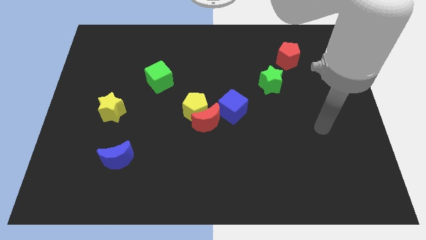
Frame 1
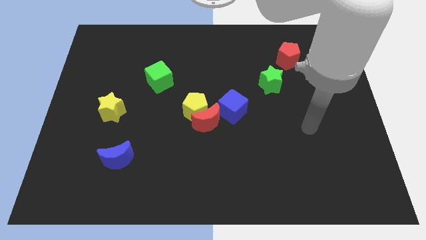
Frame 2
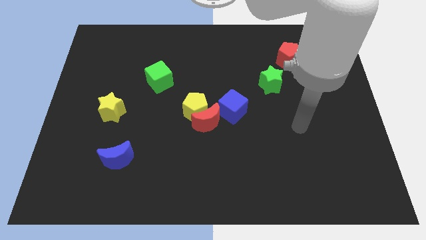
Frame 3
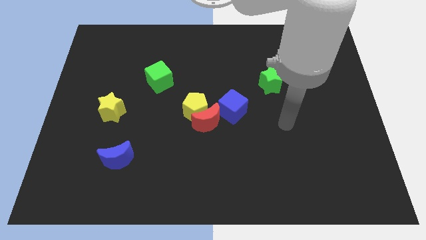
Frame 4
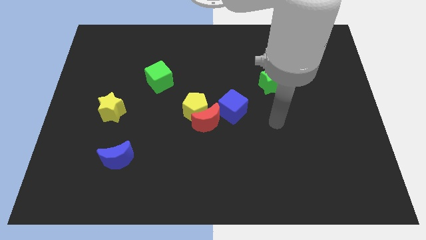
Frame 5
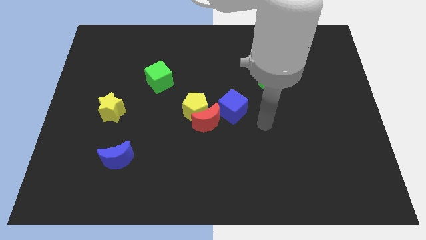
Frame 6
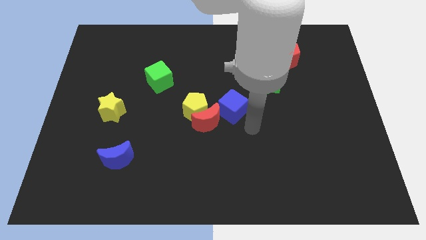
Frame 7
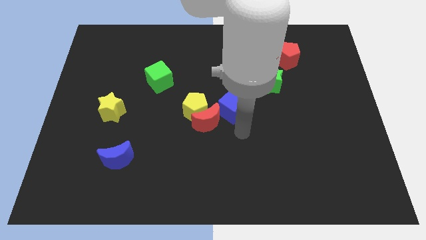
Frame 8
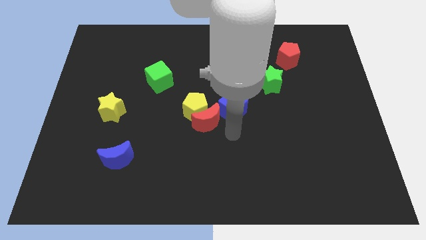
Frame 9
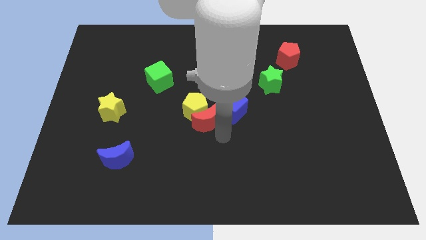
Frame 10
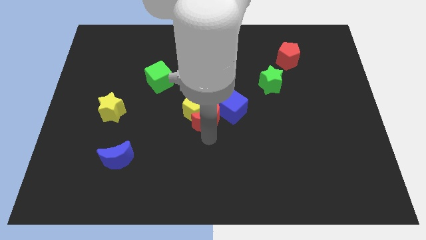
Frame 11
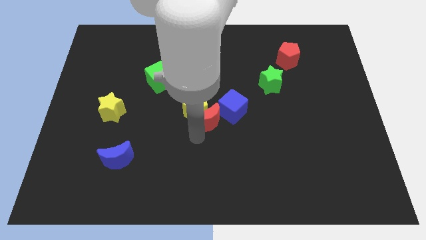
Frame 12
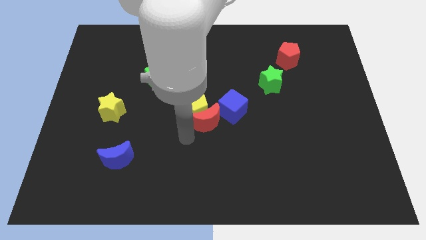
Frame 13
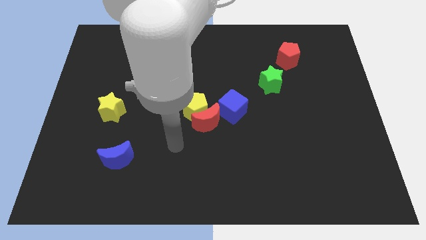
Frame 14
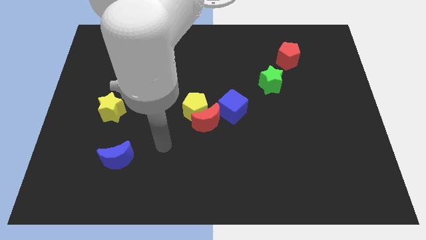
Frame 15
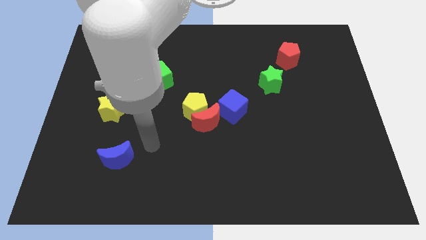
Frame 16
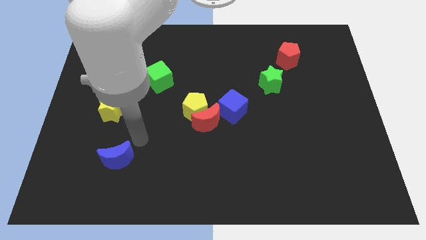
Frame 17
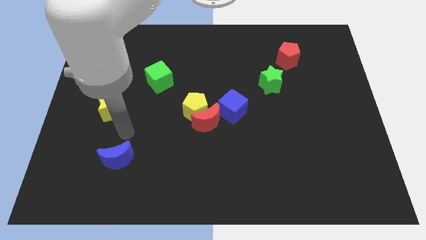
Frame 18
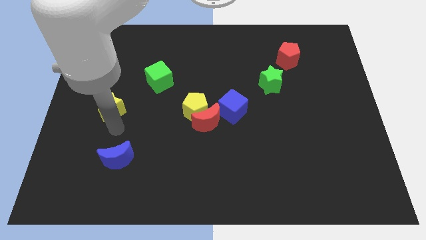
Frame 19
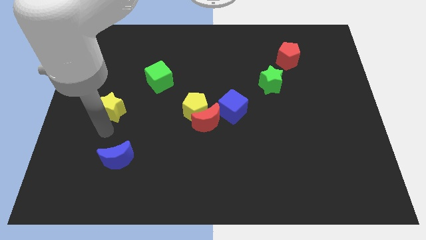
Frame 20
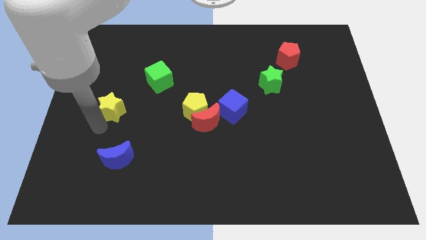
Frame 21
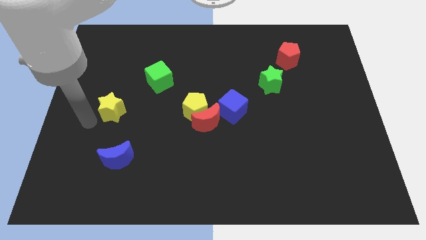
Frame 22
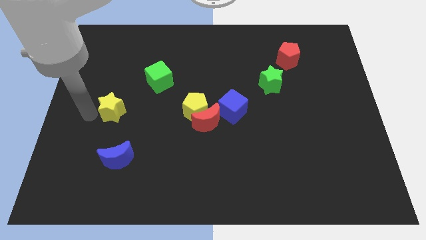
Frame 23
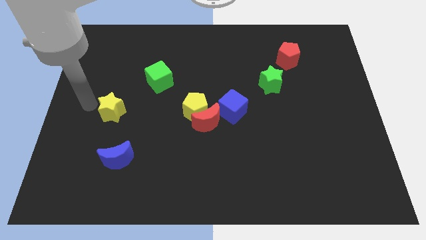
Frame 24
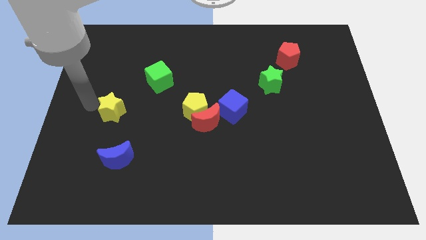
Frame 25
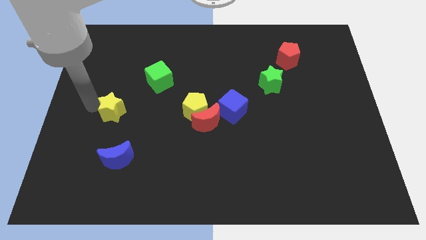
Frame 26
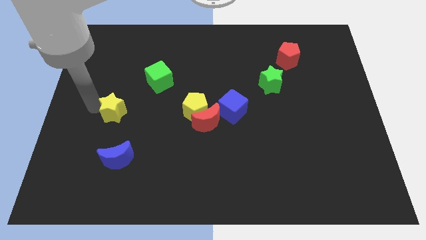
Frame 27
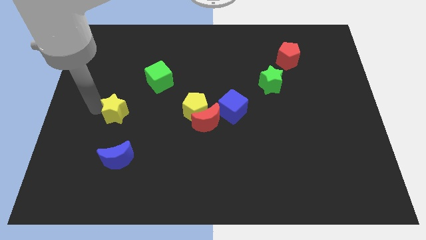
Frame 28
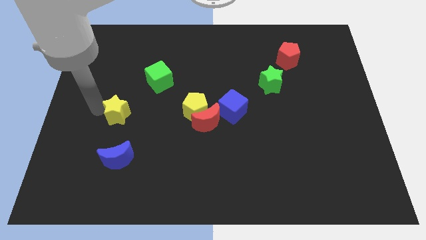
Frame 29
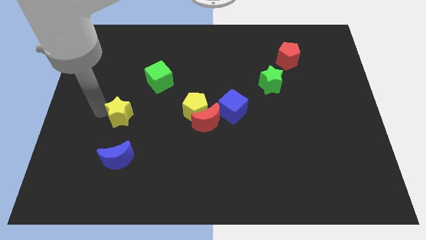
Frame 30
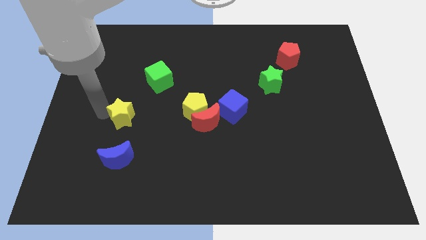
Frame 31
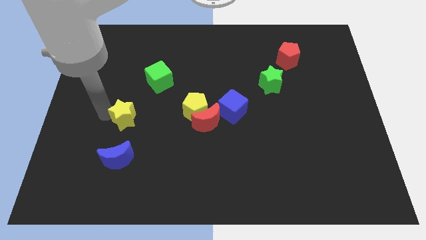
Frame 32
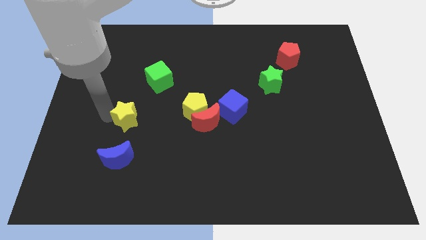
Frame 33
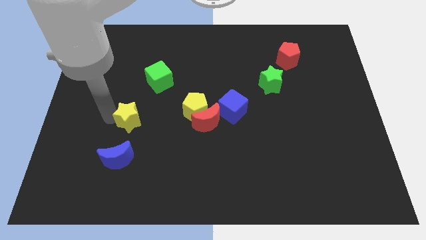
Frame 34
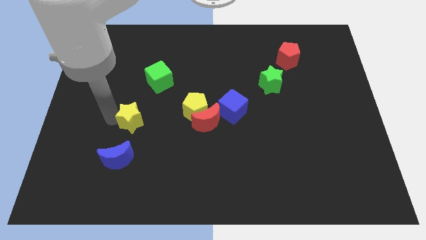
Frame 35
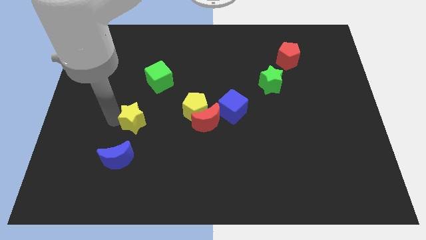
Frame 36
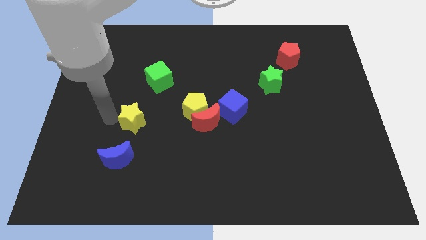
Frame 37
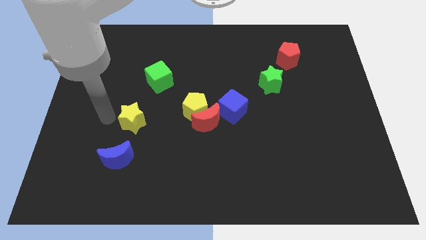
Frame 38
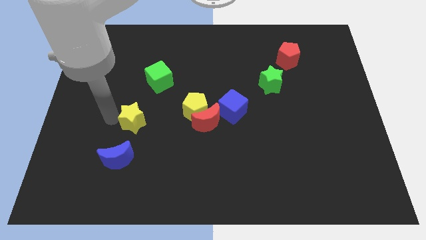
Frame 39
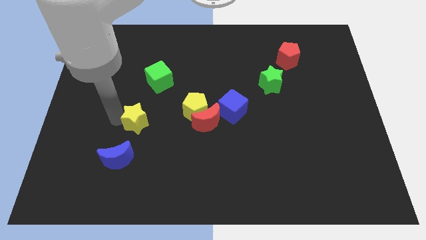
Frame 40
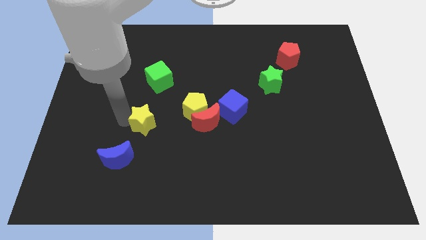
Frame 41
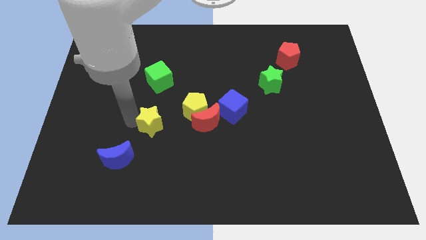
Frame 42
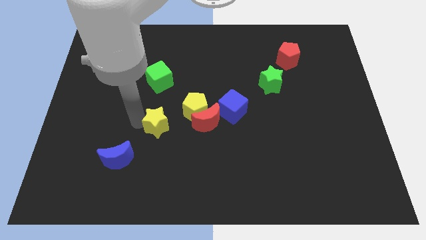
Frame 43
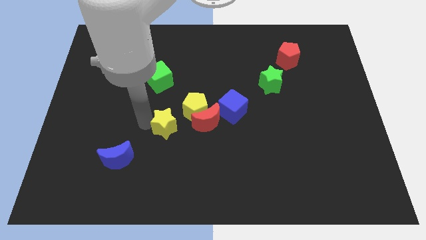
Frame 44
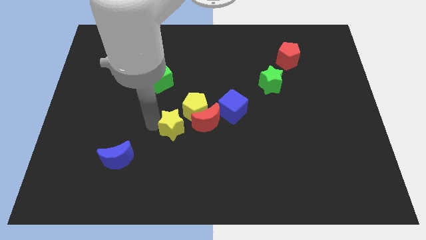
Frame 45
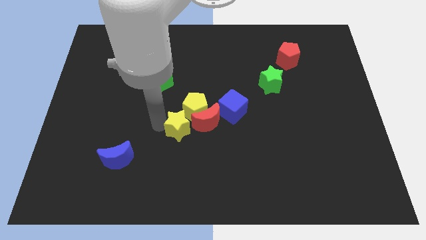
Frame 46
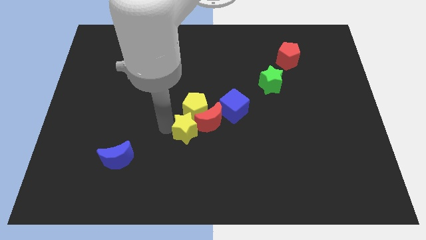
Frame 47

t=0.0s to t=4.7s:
move the yellow star towards the red moon

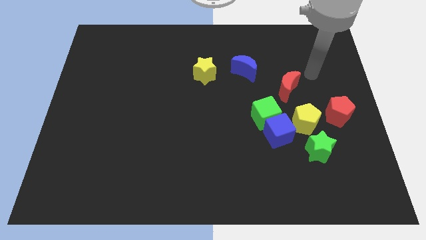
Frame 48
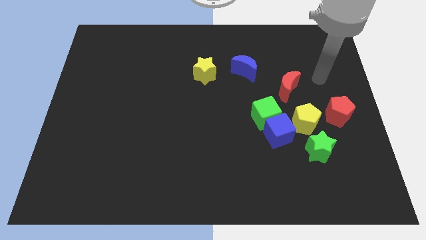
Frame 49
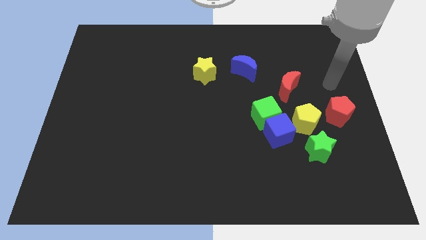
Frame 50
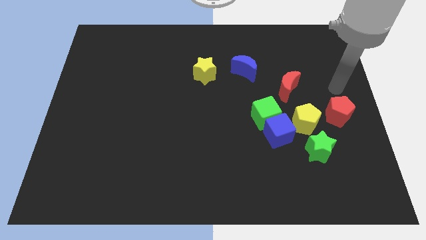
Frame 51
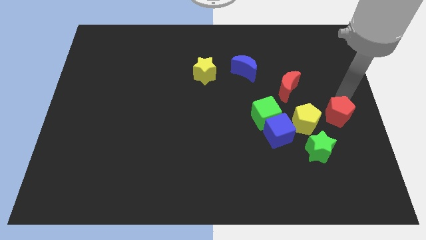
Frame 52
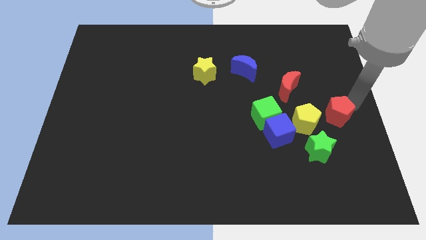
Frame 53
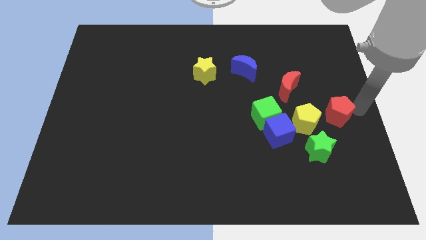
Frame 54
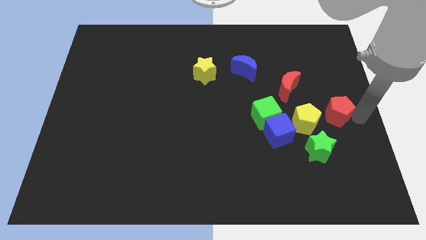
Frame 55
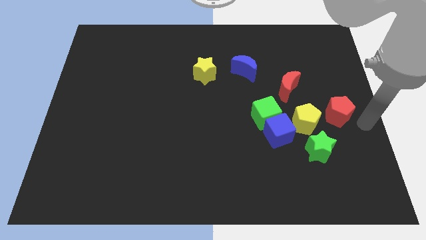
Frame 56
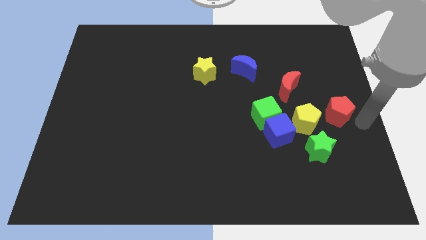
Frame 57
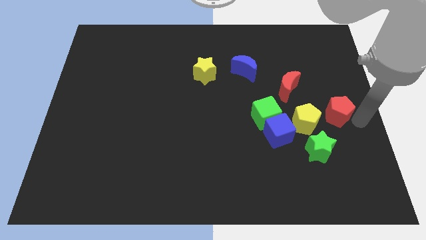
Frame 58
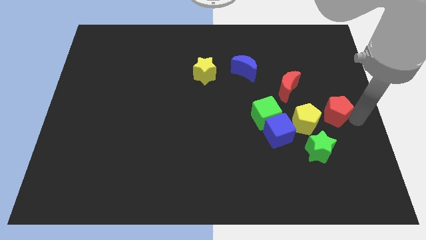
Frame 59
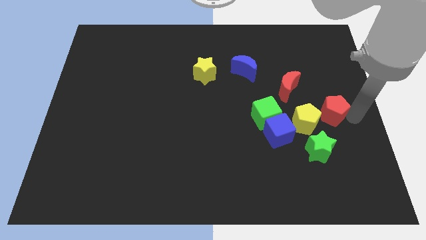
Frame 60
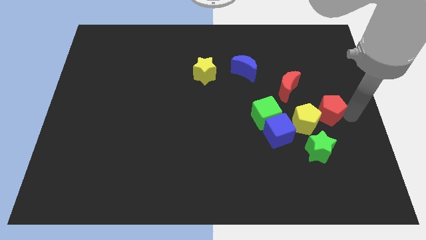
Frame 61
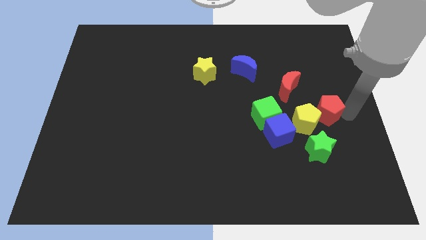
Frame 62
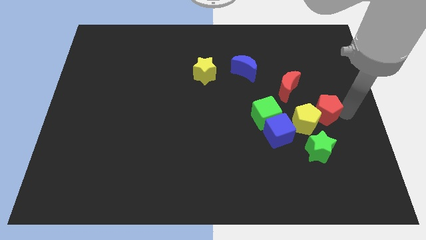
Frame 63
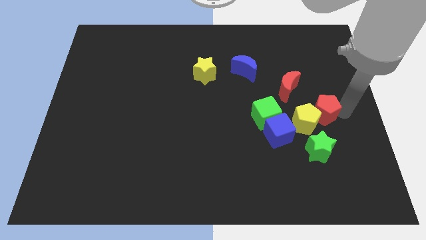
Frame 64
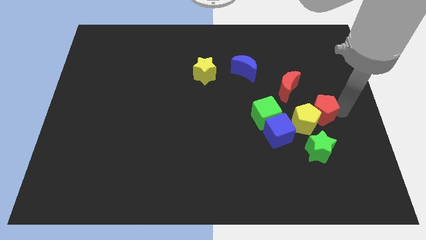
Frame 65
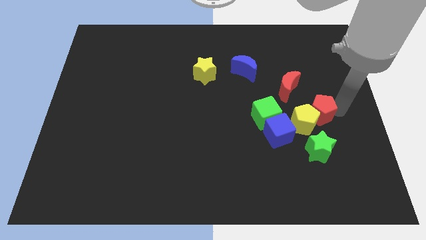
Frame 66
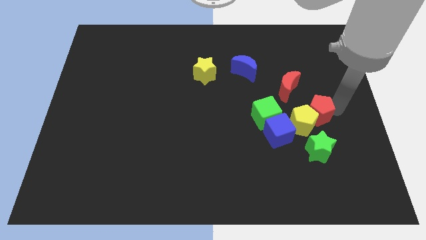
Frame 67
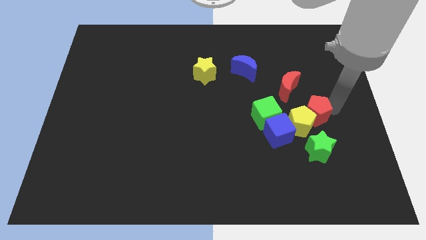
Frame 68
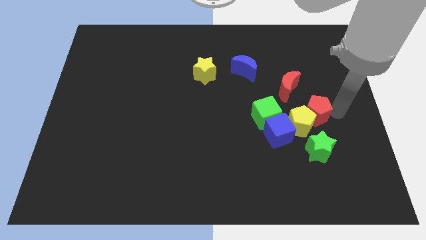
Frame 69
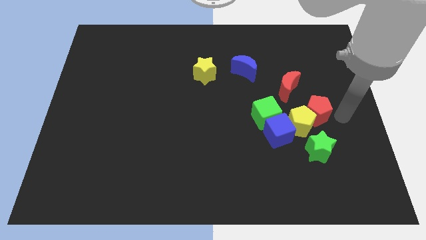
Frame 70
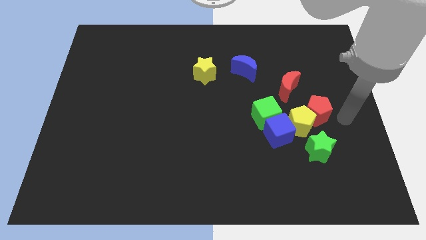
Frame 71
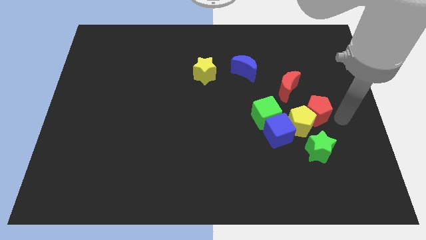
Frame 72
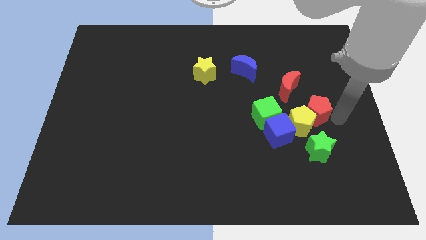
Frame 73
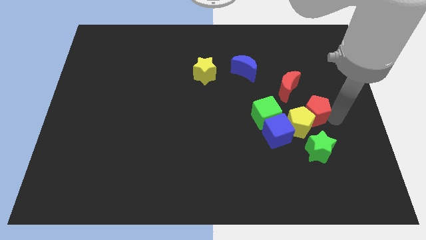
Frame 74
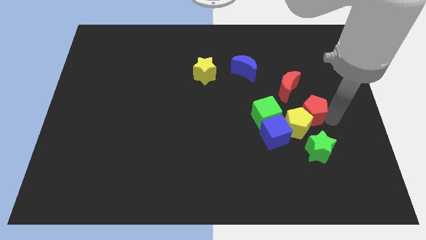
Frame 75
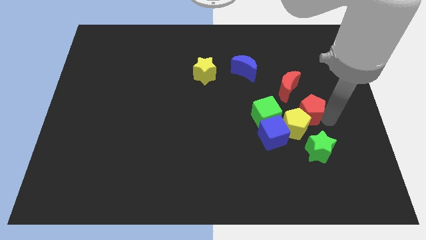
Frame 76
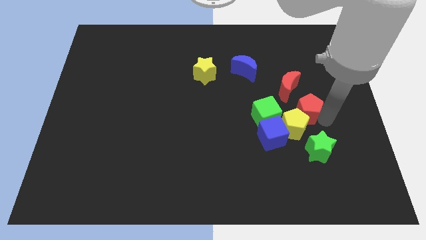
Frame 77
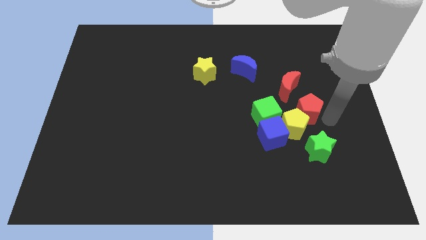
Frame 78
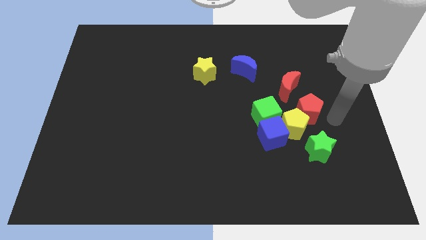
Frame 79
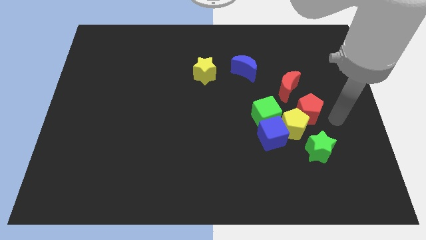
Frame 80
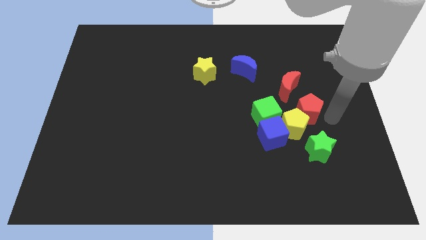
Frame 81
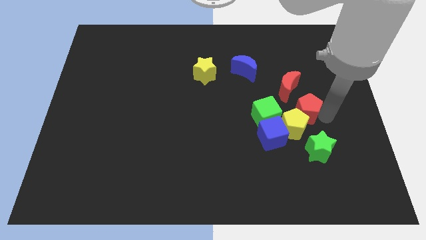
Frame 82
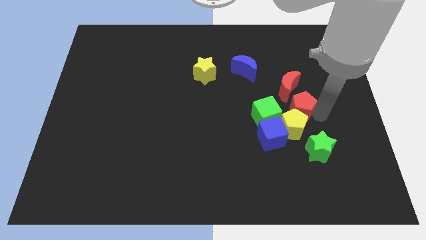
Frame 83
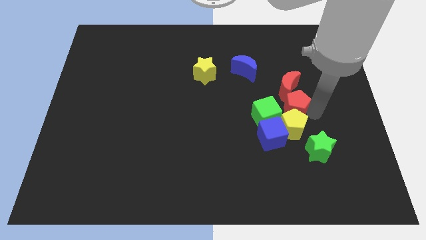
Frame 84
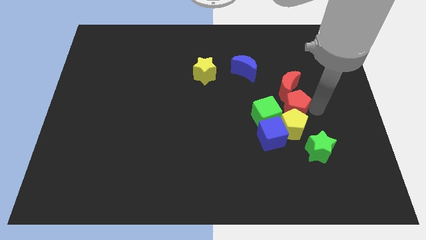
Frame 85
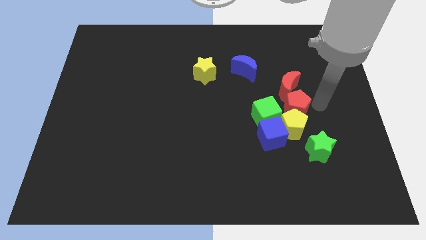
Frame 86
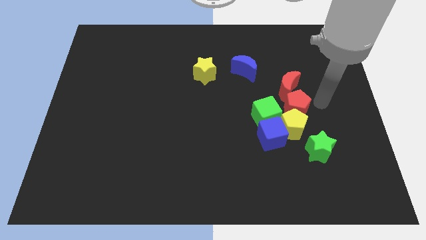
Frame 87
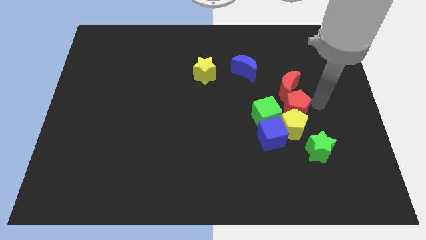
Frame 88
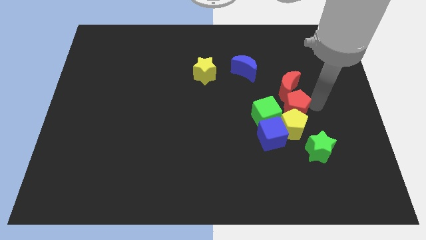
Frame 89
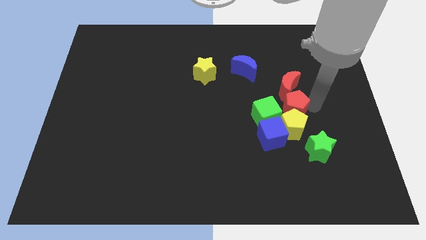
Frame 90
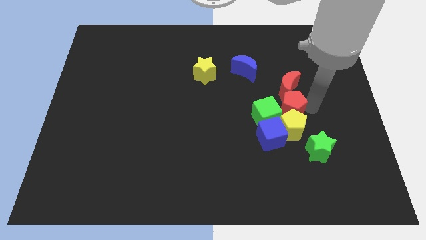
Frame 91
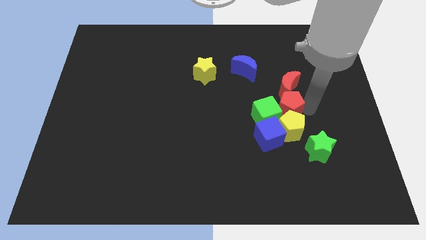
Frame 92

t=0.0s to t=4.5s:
slide the red pentagon close to the green cube
